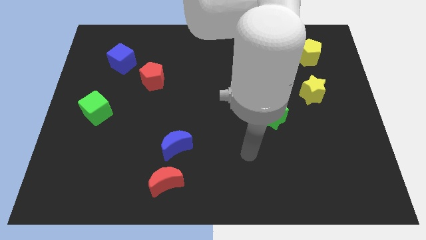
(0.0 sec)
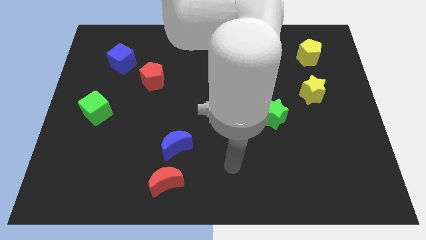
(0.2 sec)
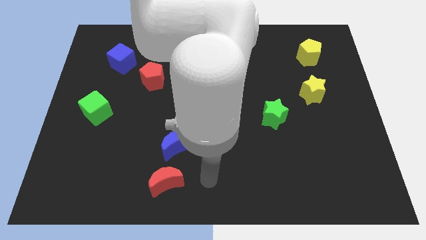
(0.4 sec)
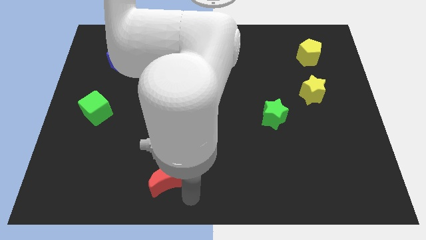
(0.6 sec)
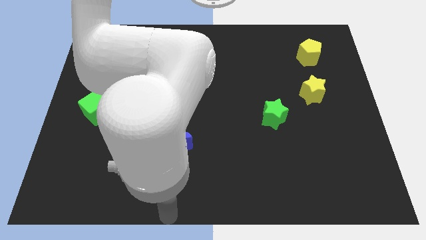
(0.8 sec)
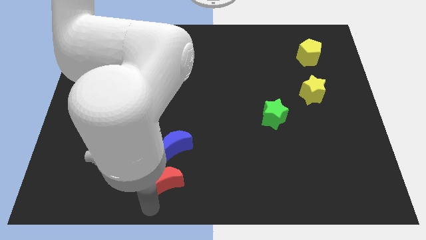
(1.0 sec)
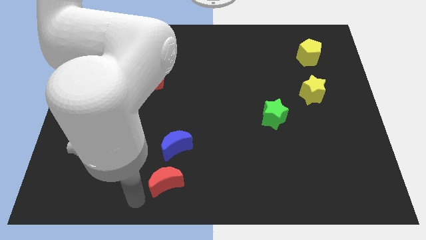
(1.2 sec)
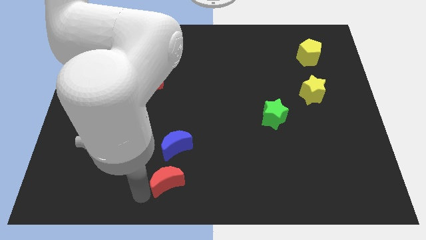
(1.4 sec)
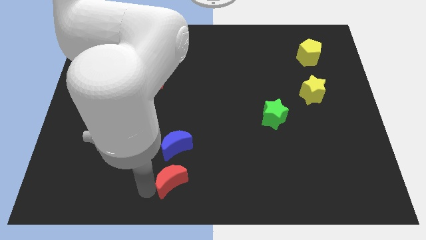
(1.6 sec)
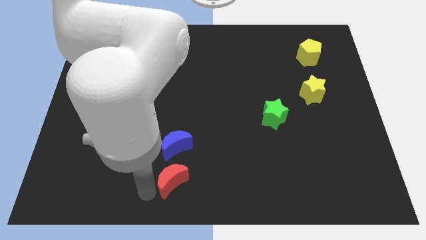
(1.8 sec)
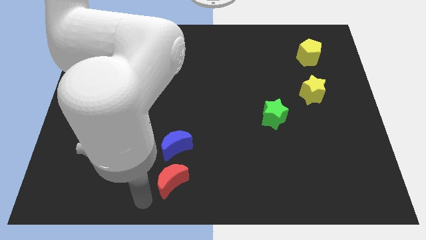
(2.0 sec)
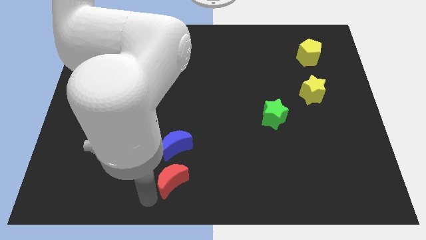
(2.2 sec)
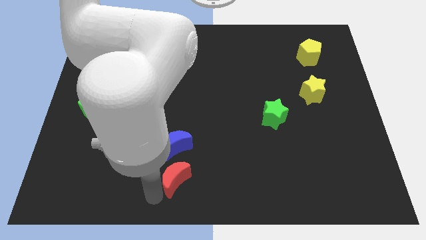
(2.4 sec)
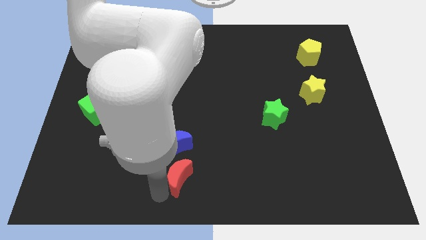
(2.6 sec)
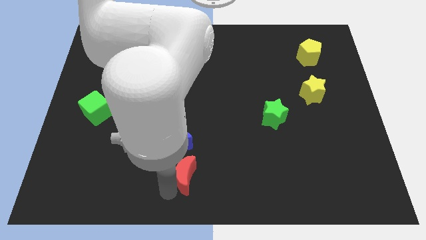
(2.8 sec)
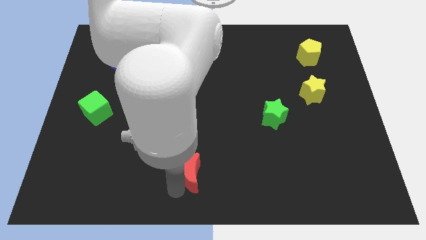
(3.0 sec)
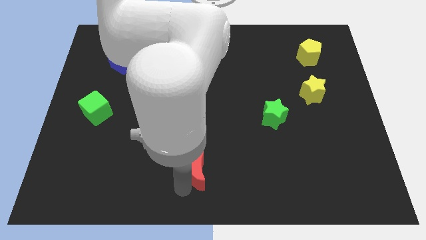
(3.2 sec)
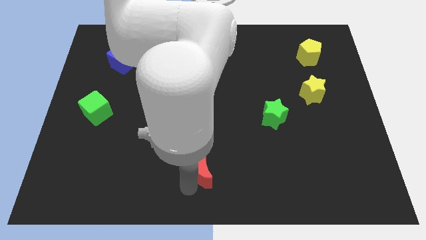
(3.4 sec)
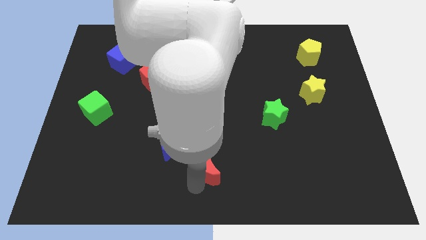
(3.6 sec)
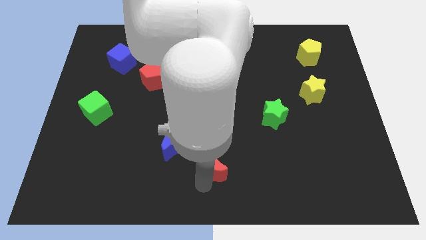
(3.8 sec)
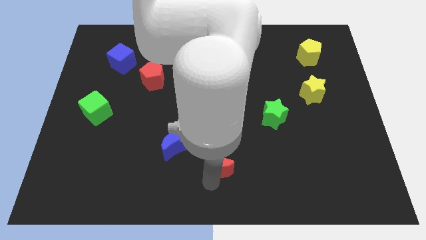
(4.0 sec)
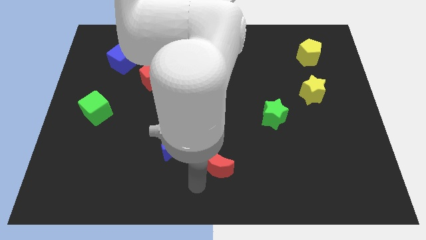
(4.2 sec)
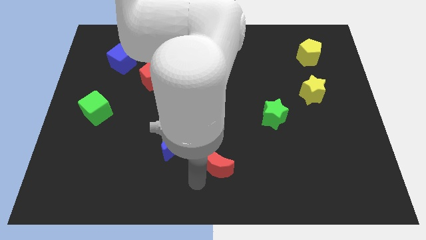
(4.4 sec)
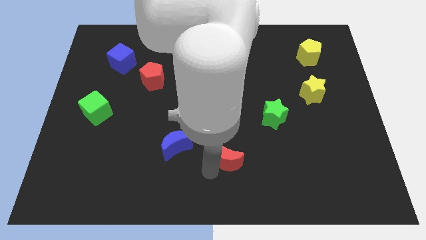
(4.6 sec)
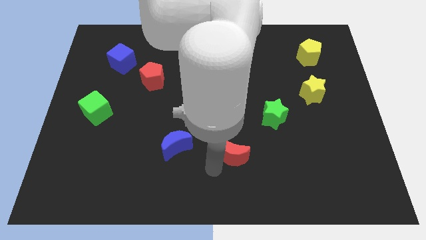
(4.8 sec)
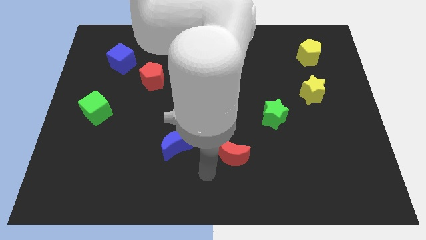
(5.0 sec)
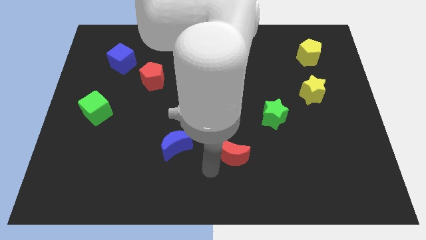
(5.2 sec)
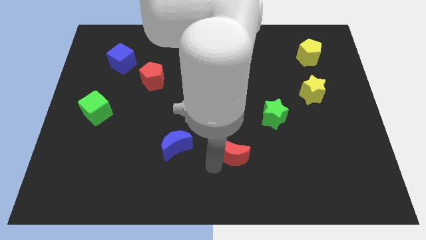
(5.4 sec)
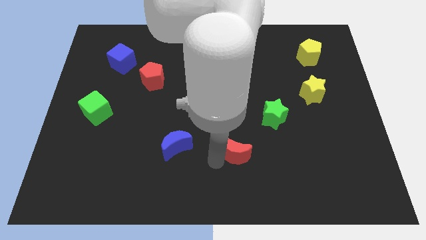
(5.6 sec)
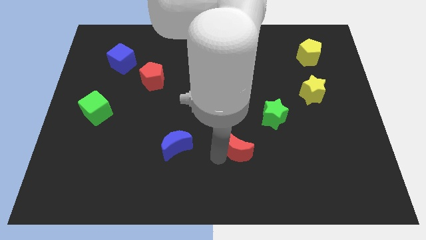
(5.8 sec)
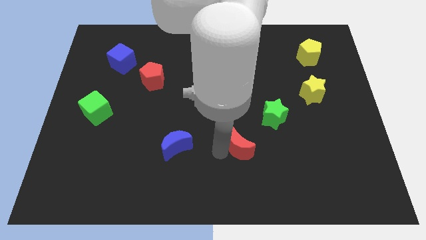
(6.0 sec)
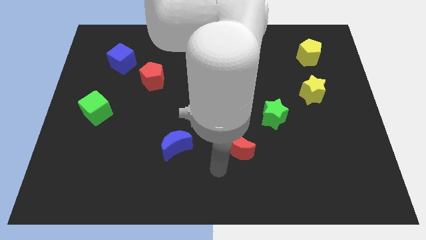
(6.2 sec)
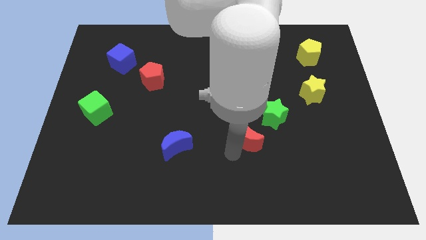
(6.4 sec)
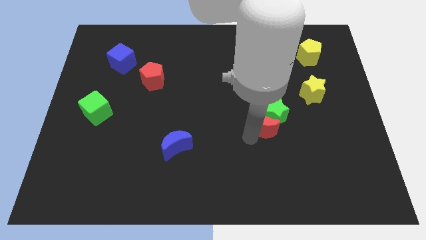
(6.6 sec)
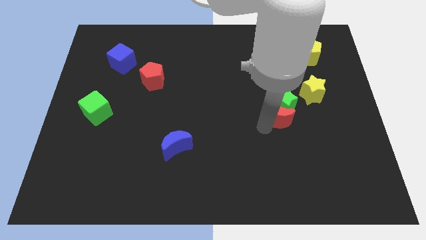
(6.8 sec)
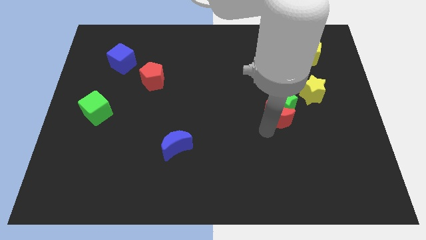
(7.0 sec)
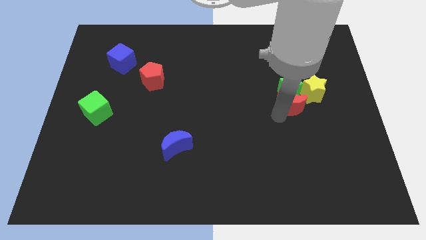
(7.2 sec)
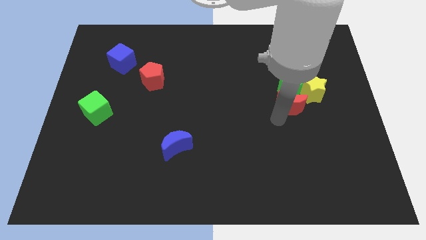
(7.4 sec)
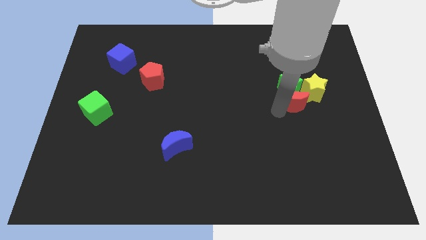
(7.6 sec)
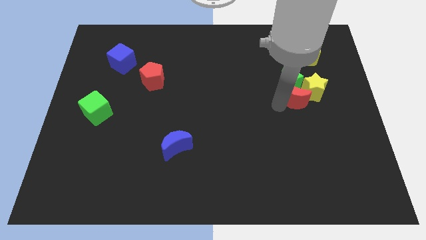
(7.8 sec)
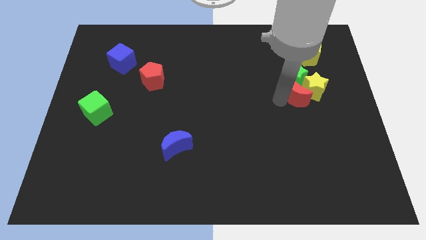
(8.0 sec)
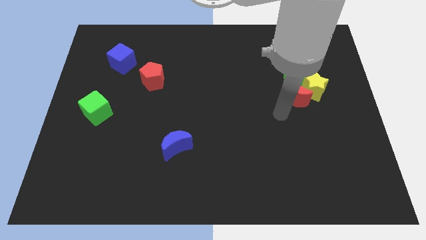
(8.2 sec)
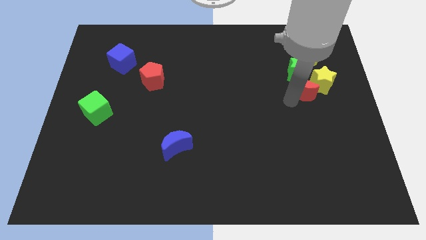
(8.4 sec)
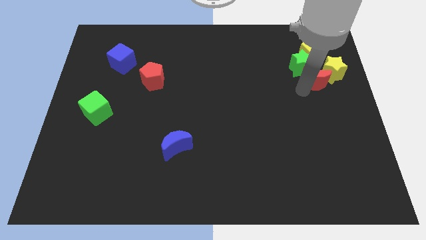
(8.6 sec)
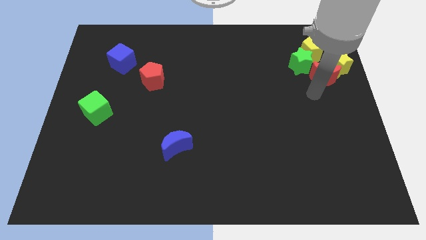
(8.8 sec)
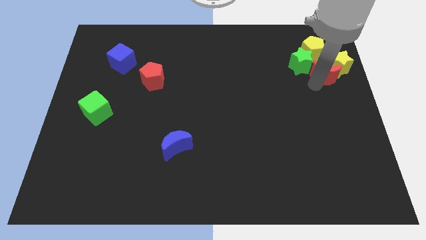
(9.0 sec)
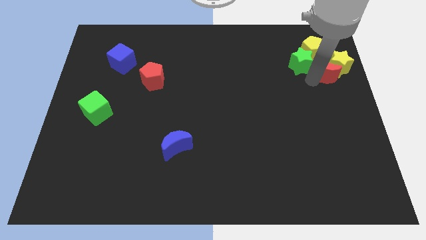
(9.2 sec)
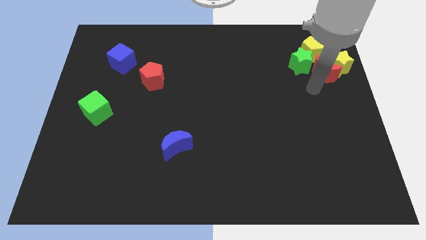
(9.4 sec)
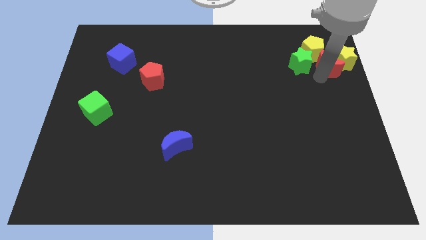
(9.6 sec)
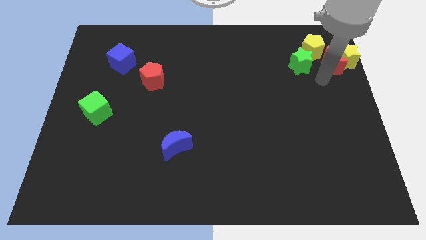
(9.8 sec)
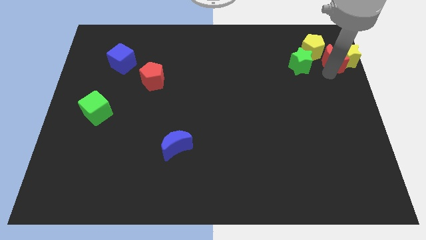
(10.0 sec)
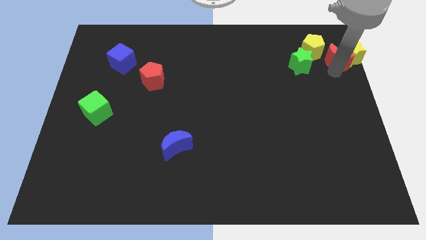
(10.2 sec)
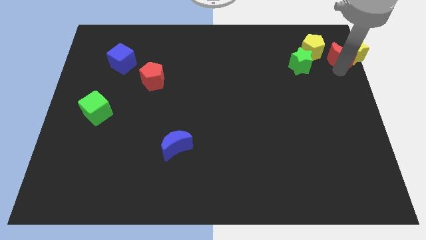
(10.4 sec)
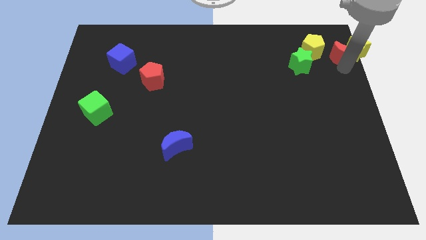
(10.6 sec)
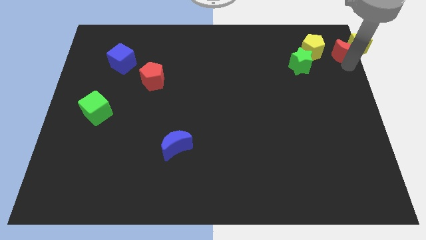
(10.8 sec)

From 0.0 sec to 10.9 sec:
slide the red moon to the top right

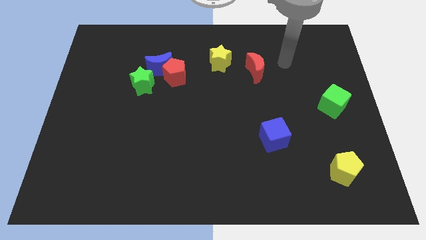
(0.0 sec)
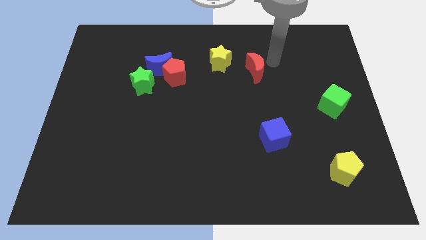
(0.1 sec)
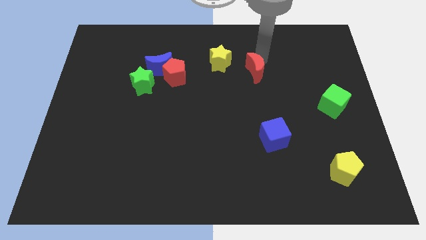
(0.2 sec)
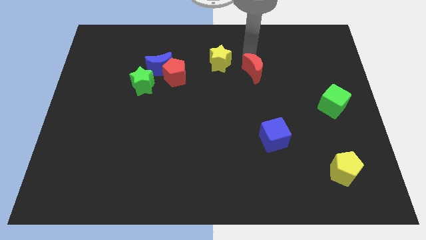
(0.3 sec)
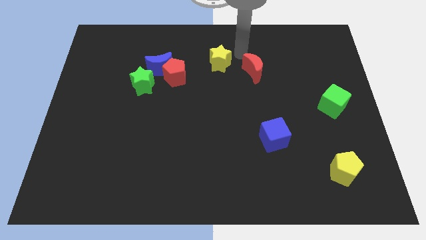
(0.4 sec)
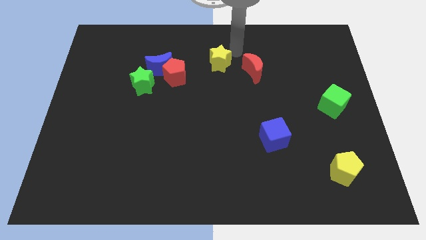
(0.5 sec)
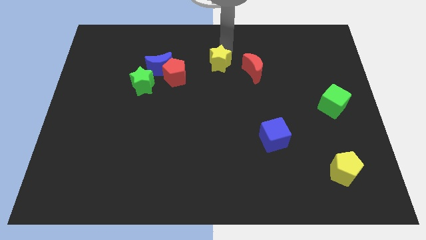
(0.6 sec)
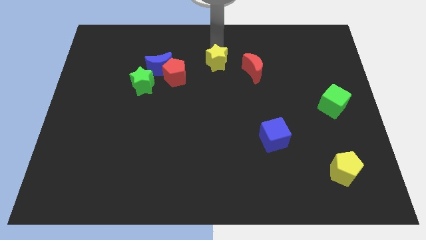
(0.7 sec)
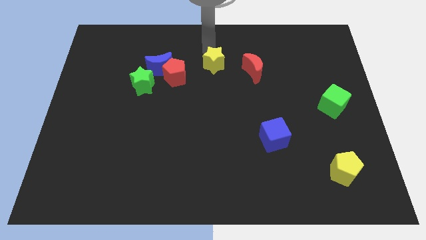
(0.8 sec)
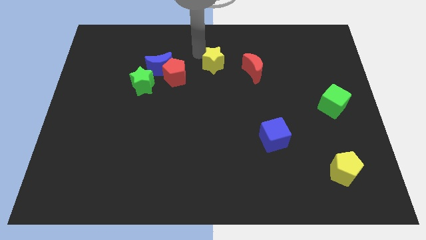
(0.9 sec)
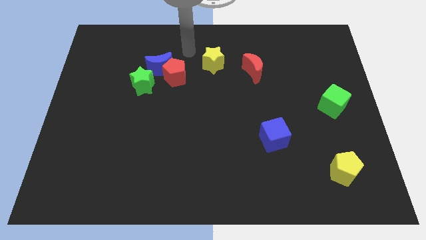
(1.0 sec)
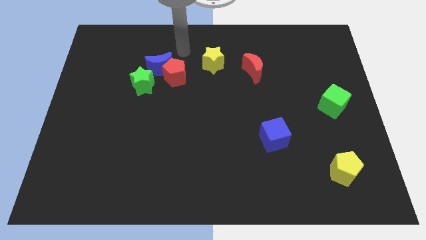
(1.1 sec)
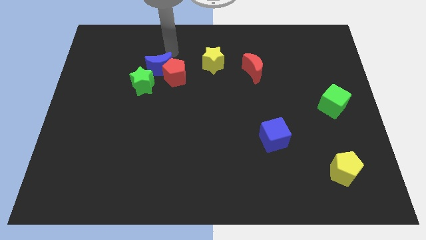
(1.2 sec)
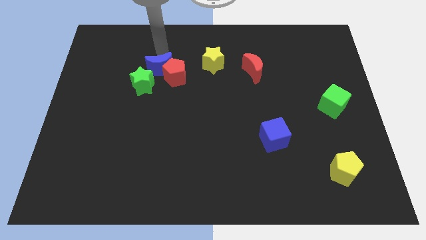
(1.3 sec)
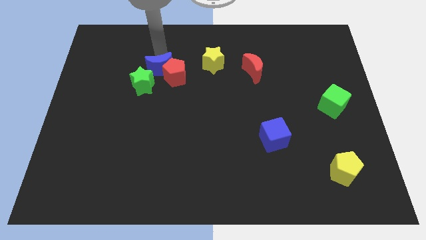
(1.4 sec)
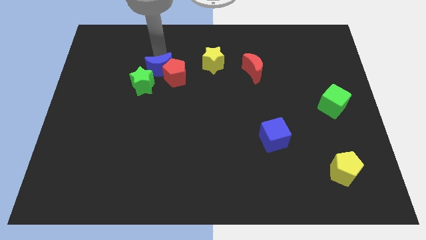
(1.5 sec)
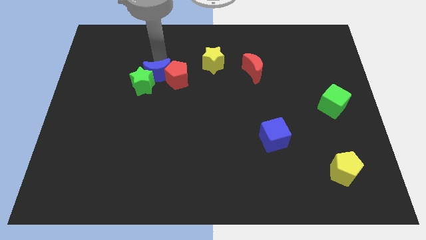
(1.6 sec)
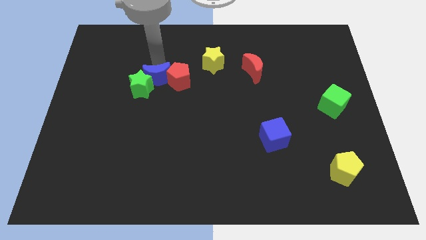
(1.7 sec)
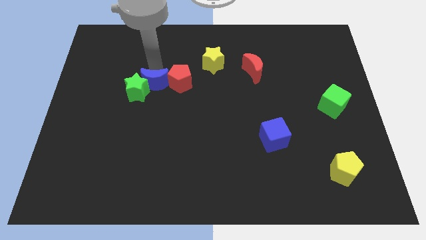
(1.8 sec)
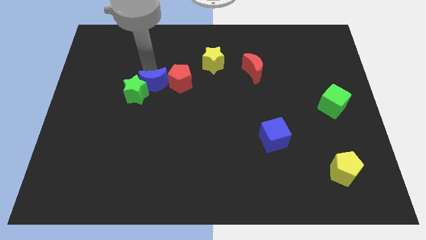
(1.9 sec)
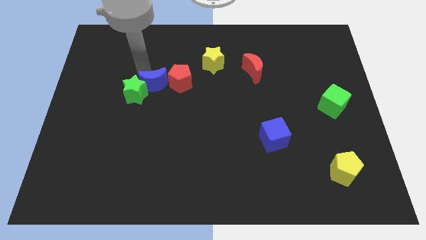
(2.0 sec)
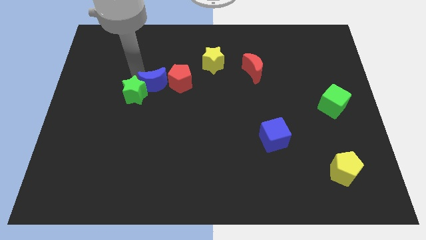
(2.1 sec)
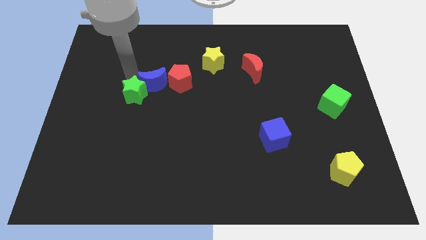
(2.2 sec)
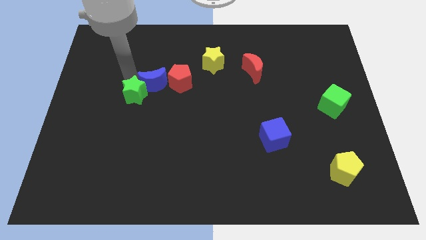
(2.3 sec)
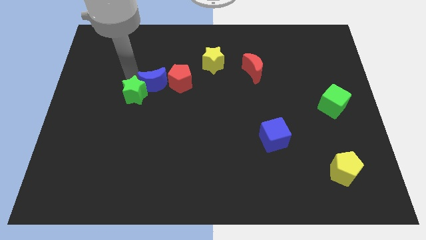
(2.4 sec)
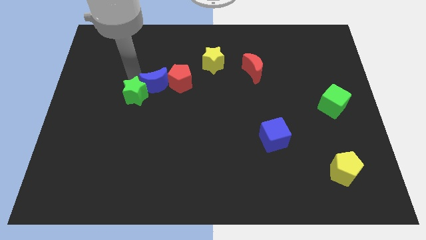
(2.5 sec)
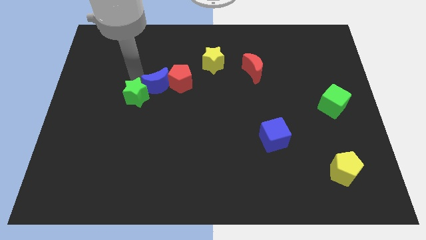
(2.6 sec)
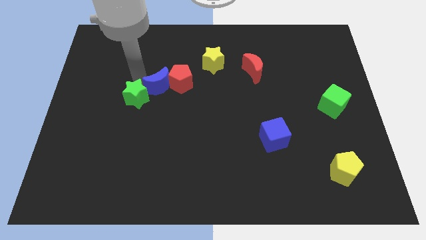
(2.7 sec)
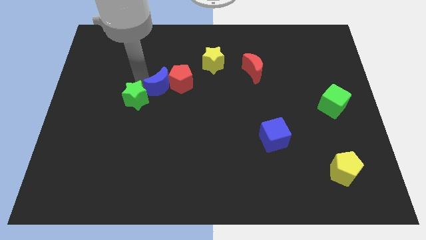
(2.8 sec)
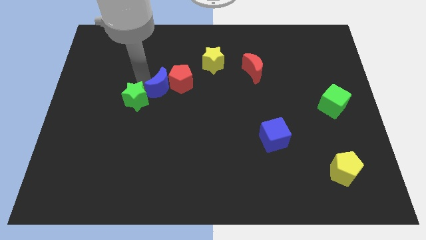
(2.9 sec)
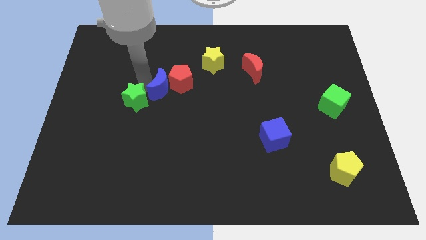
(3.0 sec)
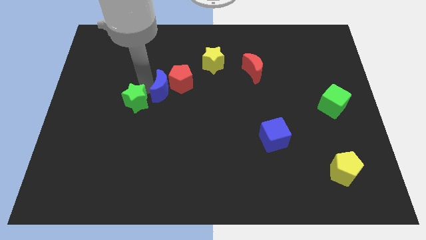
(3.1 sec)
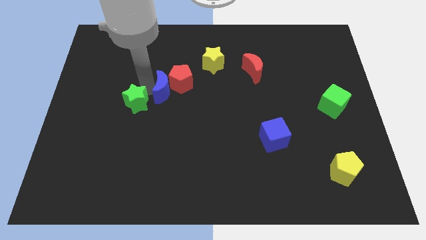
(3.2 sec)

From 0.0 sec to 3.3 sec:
push the blue moon to the middle of the board
